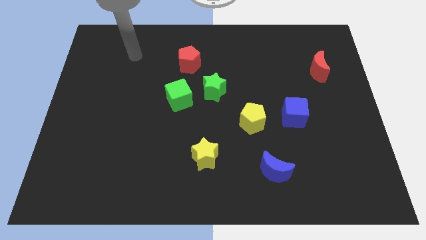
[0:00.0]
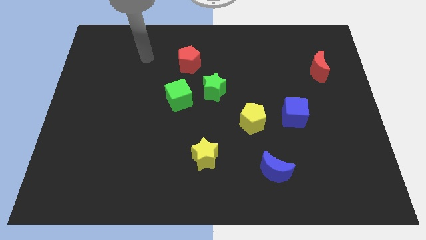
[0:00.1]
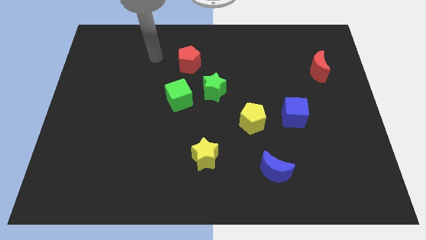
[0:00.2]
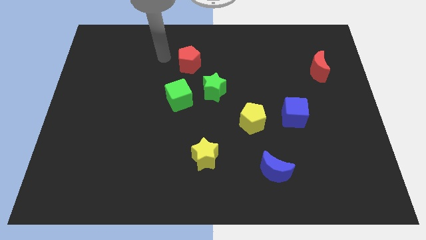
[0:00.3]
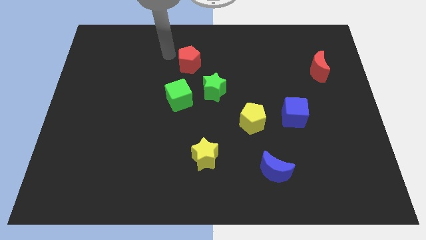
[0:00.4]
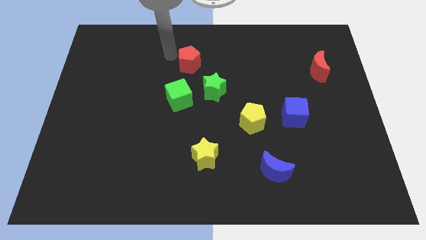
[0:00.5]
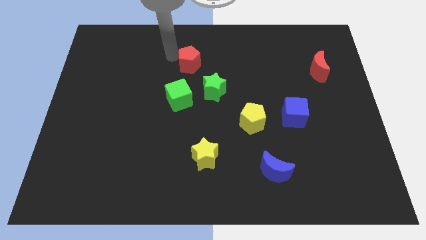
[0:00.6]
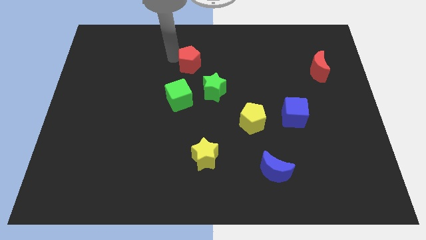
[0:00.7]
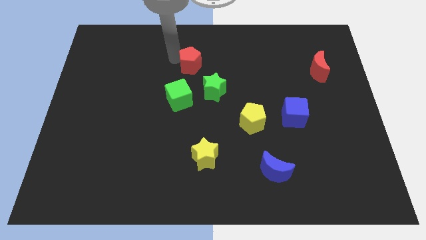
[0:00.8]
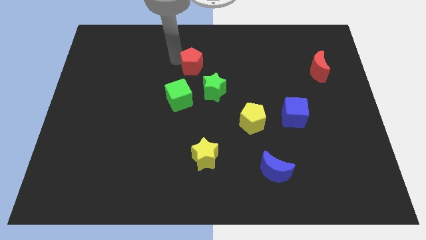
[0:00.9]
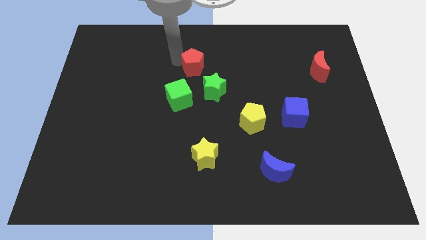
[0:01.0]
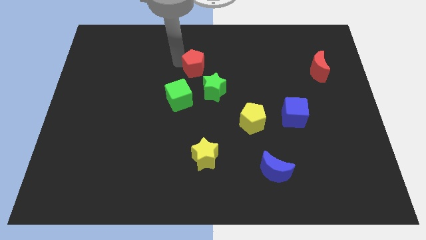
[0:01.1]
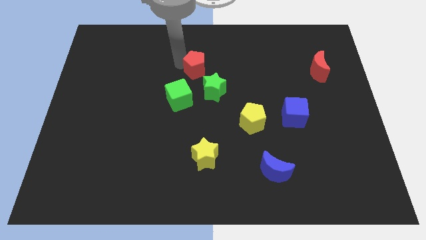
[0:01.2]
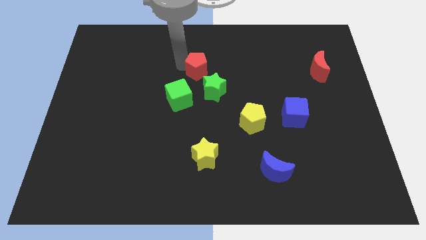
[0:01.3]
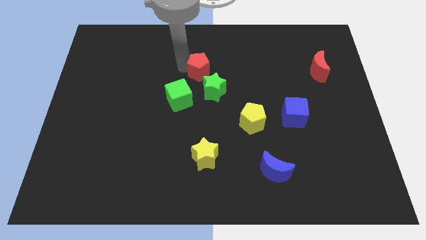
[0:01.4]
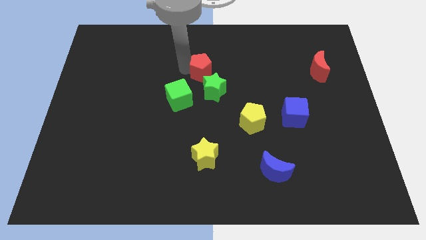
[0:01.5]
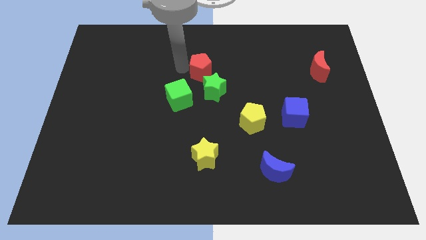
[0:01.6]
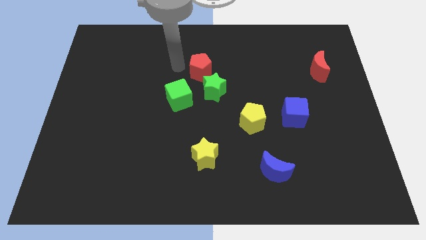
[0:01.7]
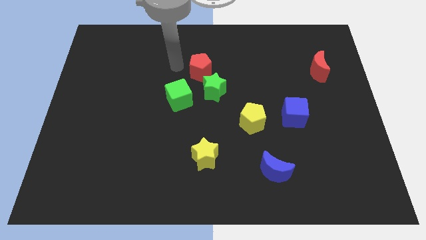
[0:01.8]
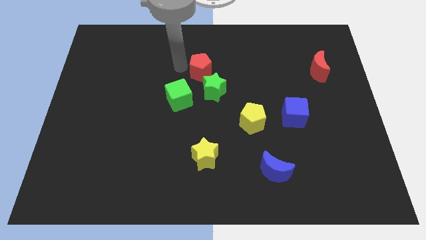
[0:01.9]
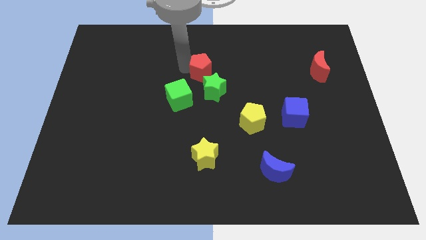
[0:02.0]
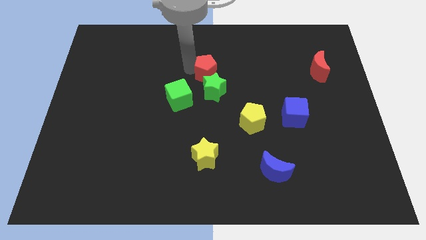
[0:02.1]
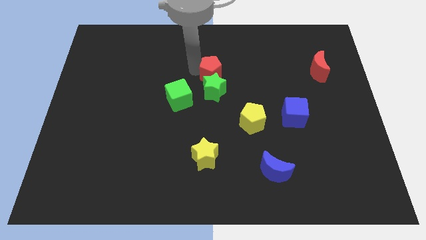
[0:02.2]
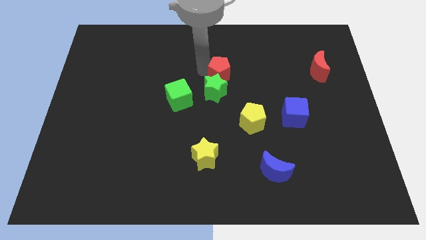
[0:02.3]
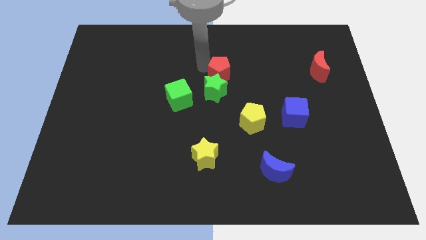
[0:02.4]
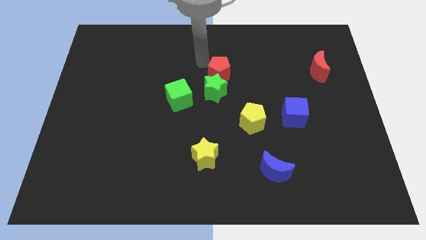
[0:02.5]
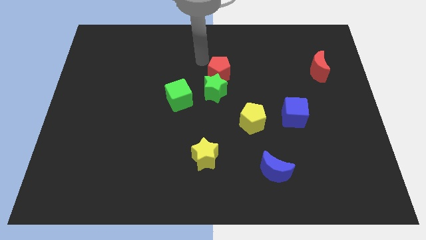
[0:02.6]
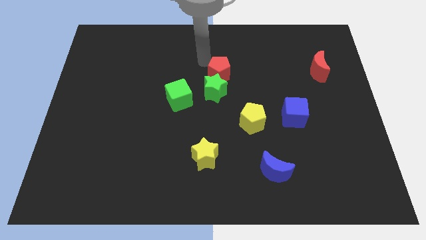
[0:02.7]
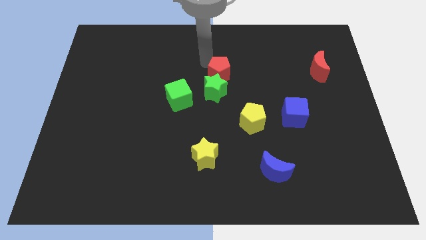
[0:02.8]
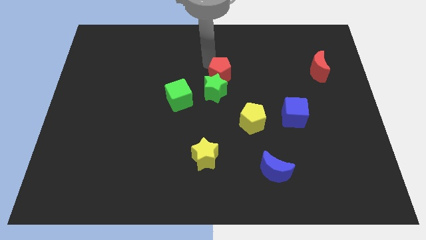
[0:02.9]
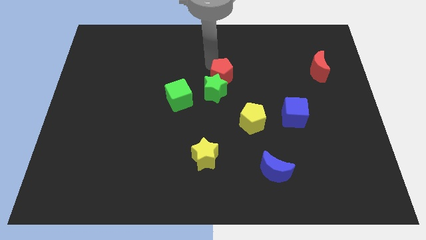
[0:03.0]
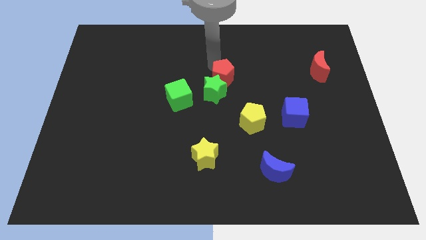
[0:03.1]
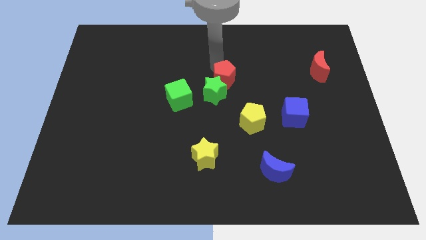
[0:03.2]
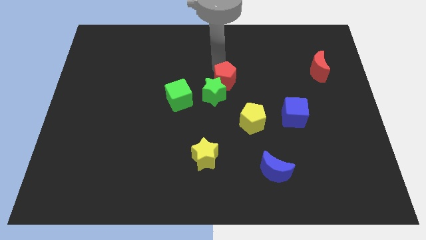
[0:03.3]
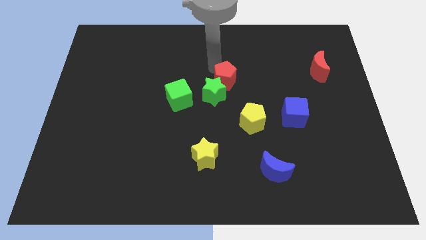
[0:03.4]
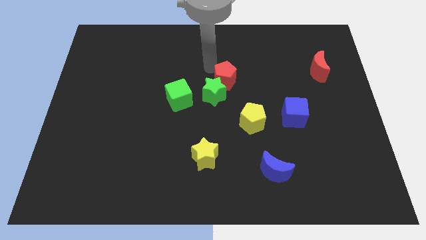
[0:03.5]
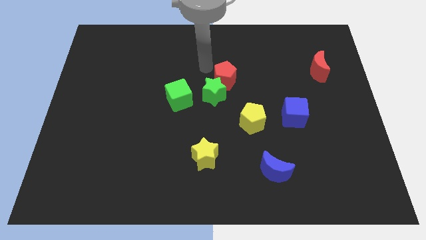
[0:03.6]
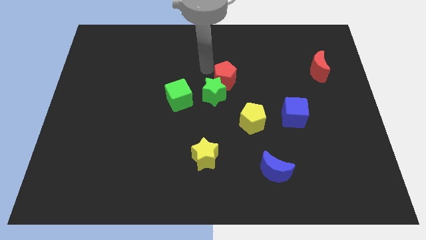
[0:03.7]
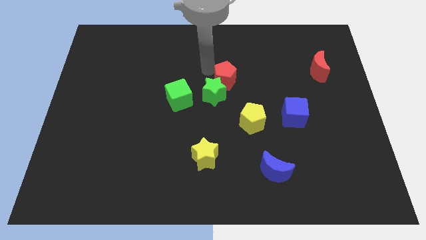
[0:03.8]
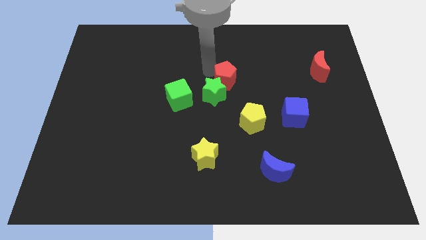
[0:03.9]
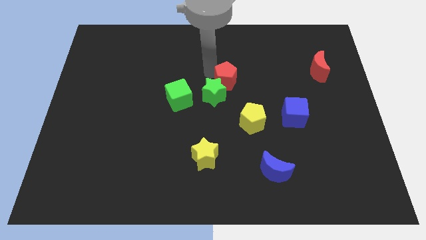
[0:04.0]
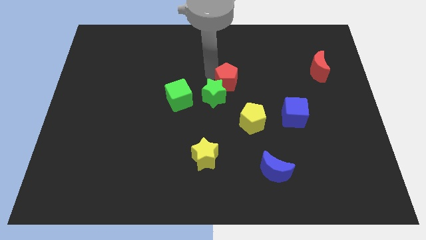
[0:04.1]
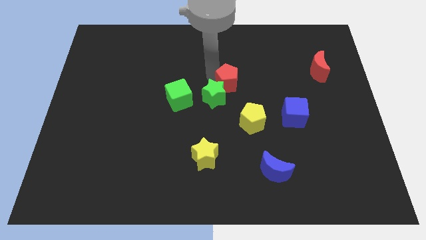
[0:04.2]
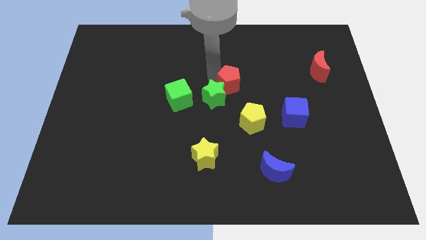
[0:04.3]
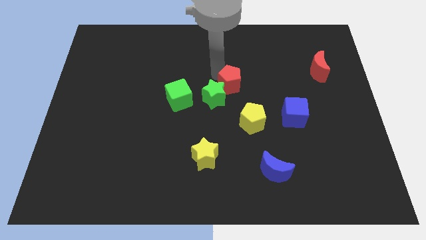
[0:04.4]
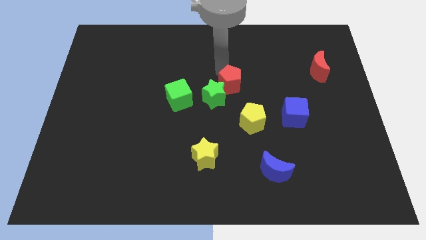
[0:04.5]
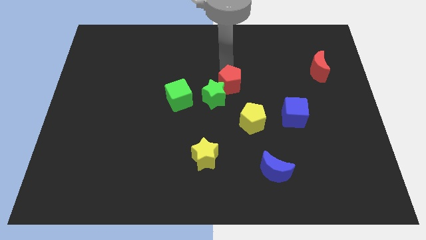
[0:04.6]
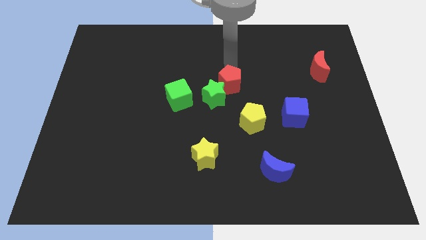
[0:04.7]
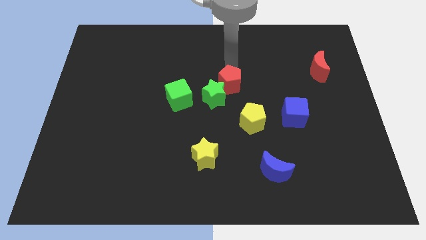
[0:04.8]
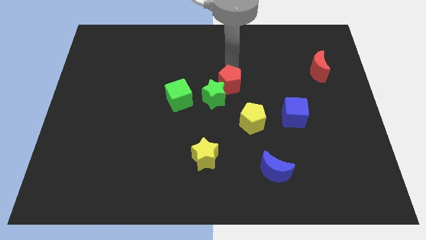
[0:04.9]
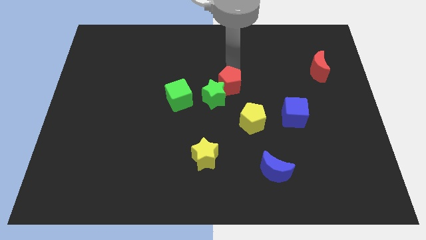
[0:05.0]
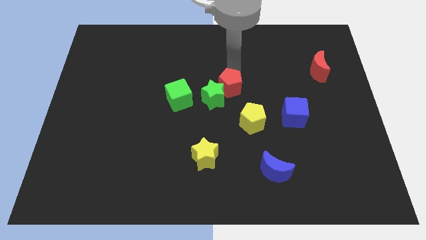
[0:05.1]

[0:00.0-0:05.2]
put the red pentagon to the top left side of the yellow pentagon

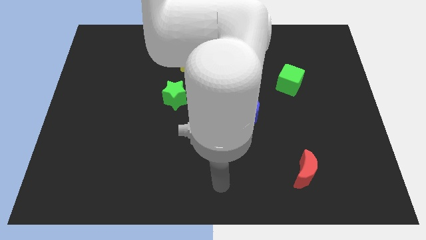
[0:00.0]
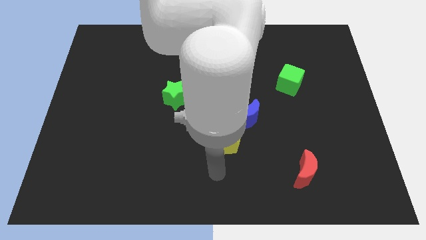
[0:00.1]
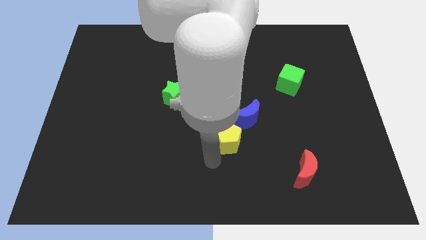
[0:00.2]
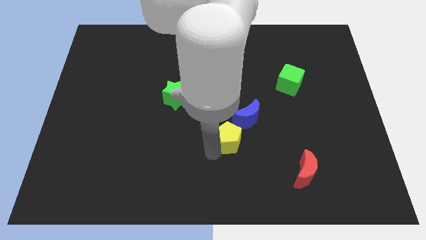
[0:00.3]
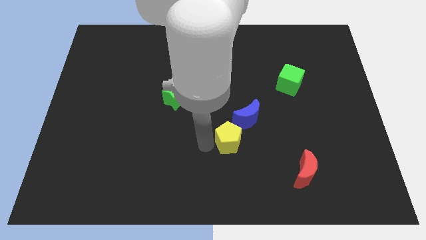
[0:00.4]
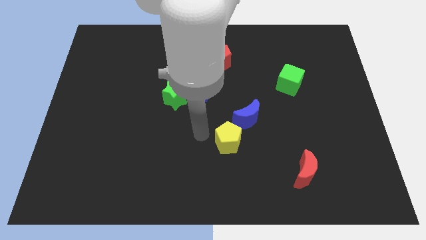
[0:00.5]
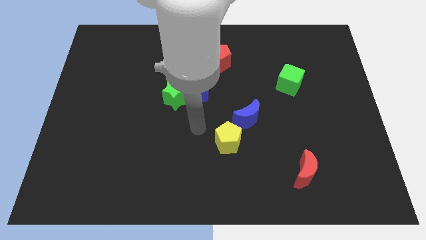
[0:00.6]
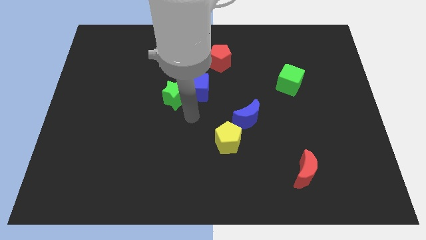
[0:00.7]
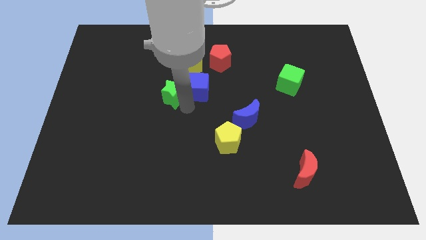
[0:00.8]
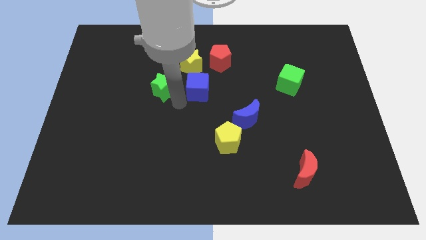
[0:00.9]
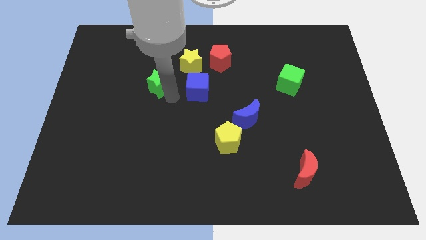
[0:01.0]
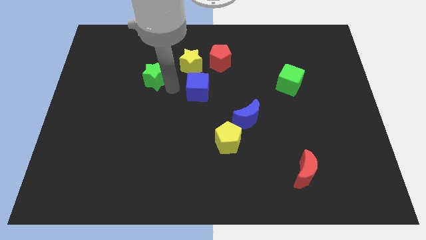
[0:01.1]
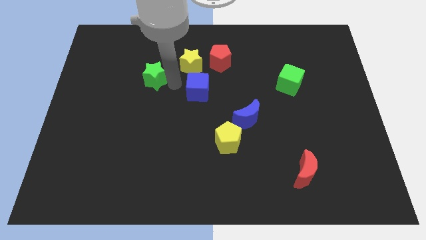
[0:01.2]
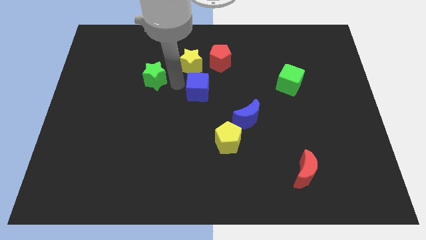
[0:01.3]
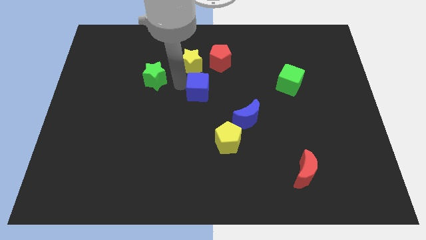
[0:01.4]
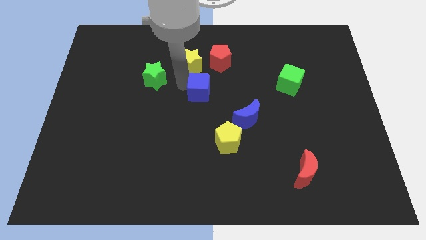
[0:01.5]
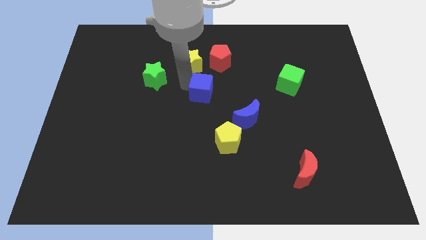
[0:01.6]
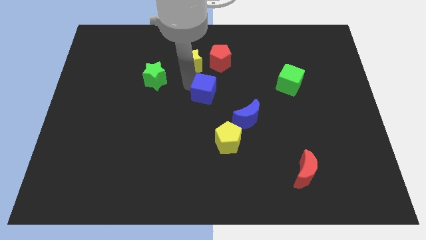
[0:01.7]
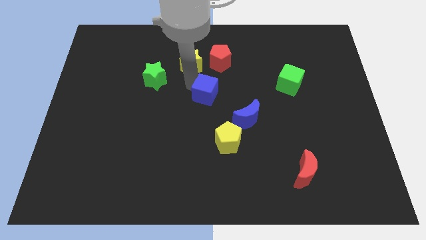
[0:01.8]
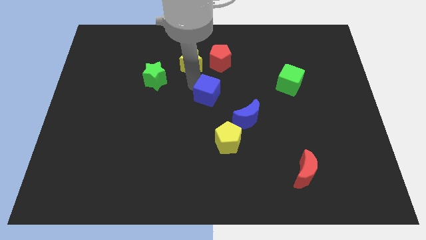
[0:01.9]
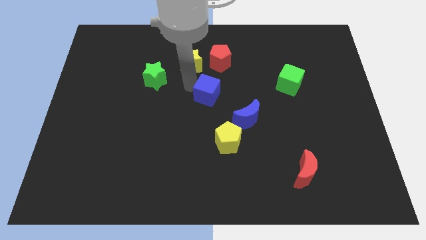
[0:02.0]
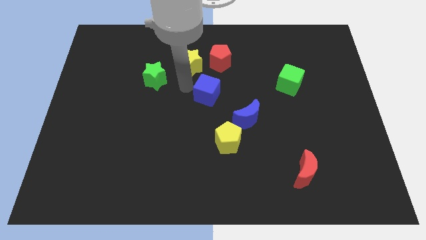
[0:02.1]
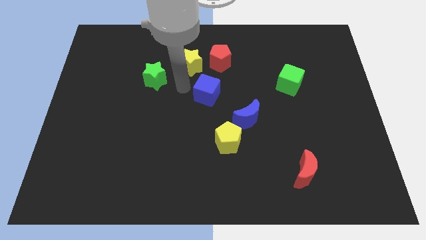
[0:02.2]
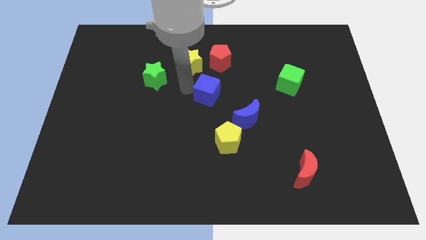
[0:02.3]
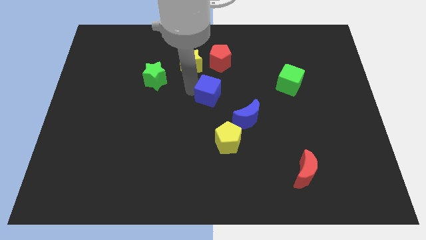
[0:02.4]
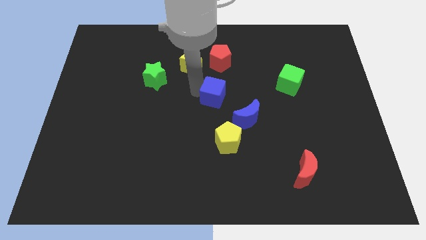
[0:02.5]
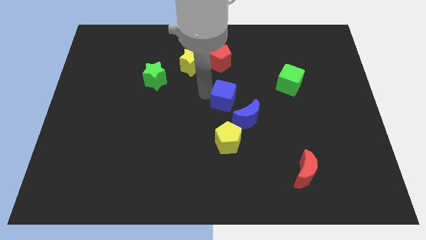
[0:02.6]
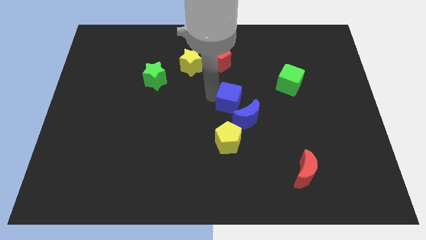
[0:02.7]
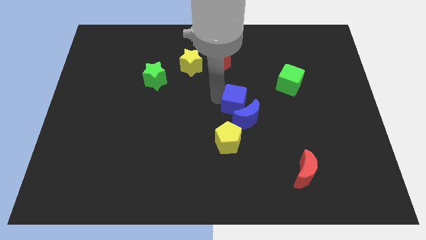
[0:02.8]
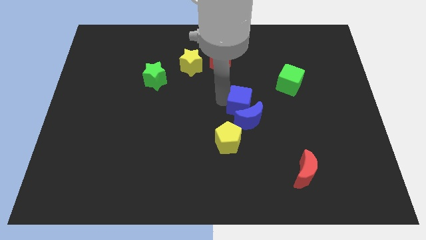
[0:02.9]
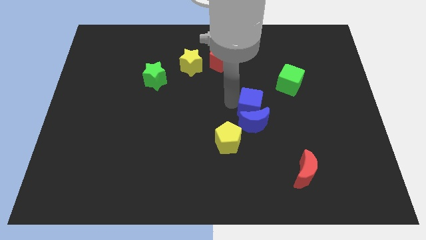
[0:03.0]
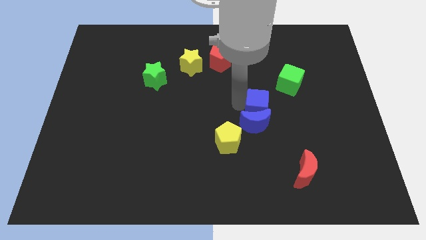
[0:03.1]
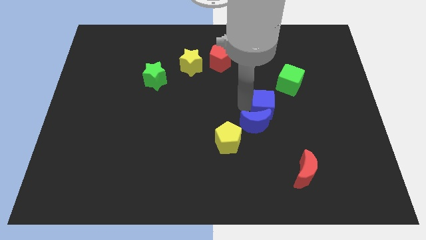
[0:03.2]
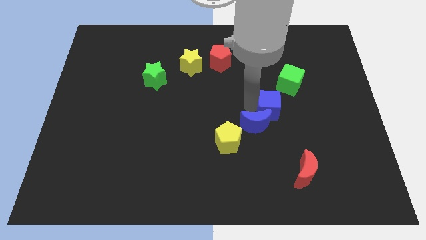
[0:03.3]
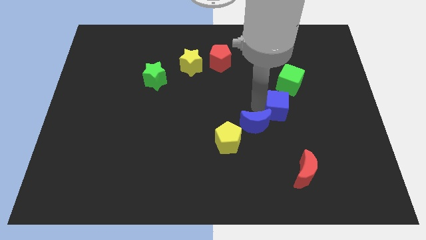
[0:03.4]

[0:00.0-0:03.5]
push the blue cube to the bottom side of the green cube
